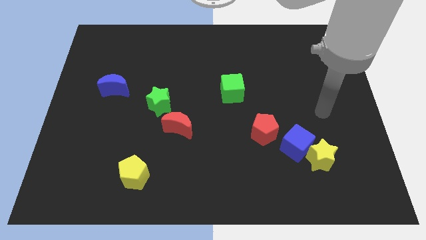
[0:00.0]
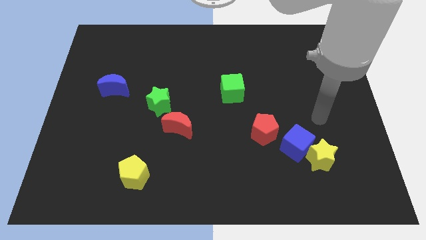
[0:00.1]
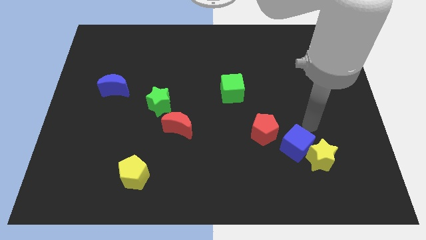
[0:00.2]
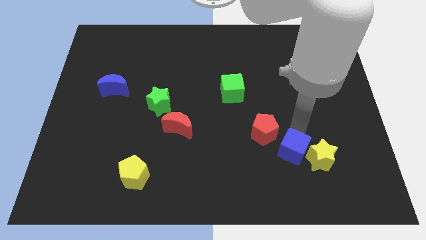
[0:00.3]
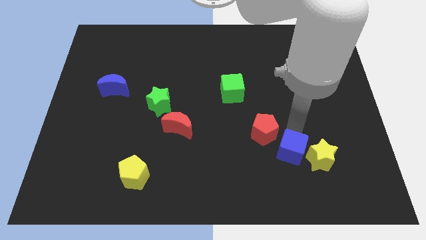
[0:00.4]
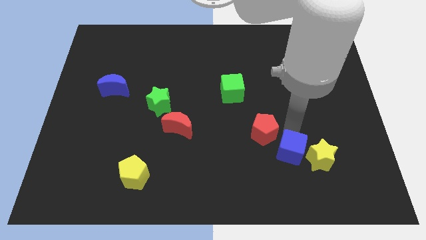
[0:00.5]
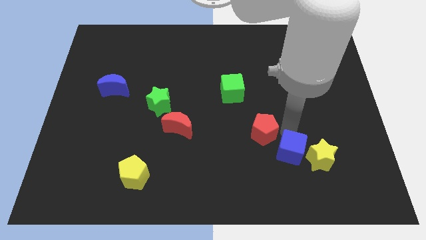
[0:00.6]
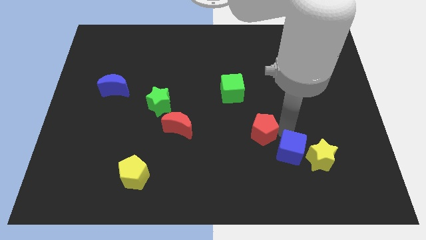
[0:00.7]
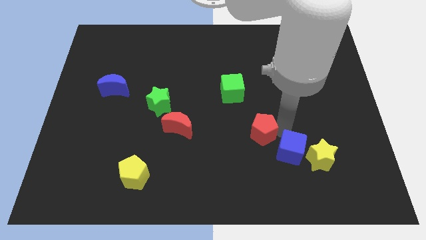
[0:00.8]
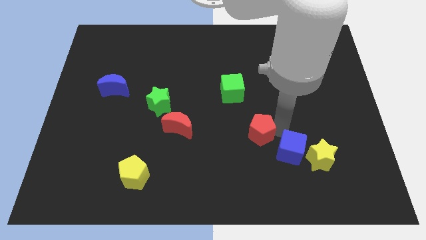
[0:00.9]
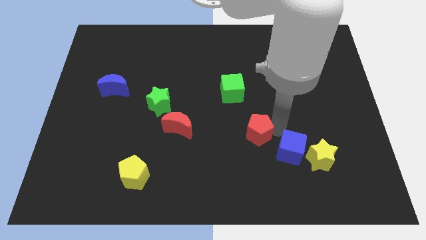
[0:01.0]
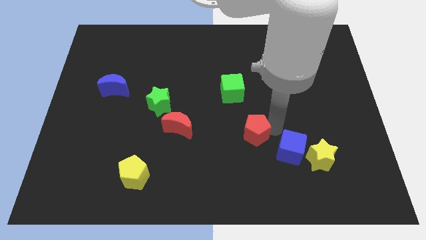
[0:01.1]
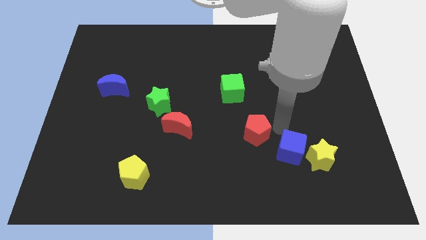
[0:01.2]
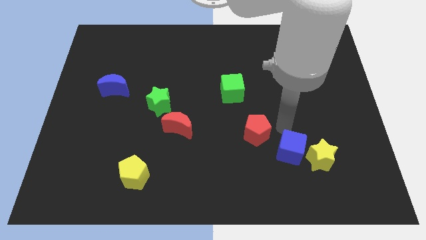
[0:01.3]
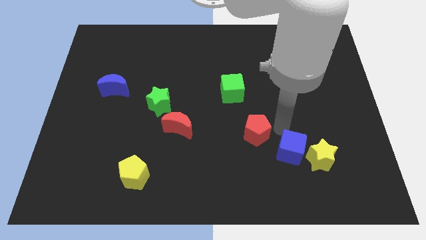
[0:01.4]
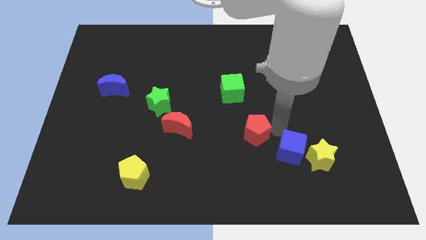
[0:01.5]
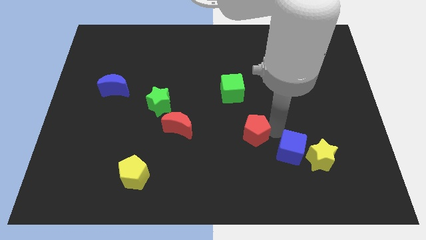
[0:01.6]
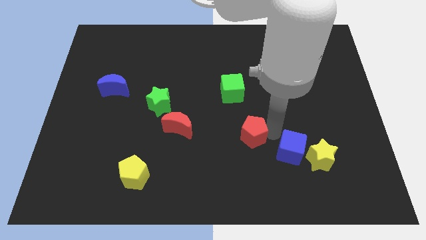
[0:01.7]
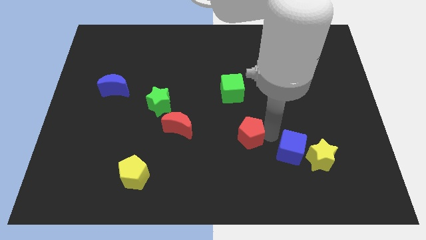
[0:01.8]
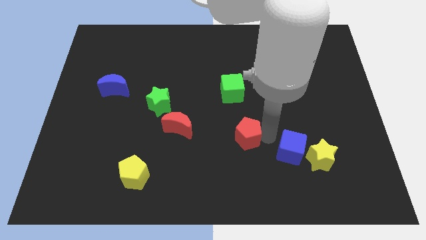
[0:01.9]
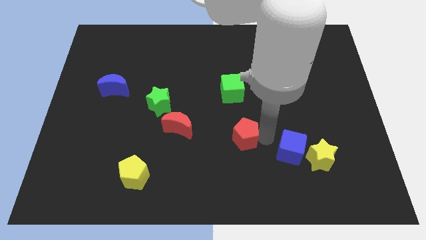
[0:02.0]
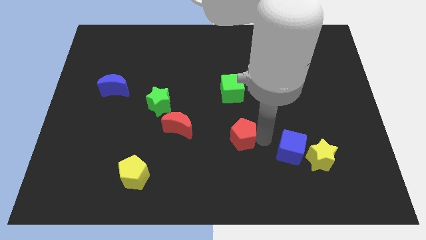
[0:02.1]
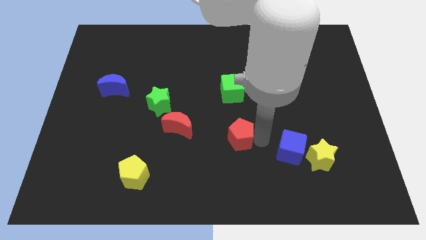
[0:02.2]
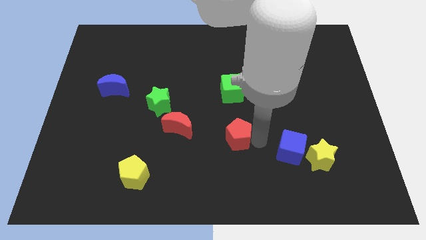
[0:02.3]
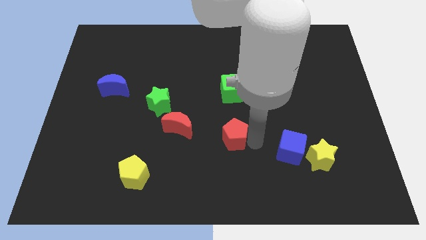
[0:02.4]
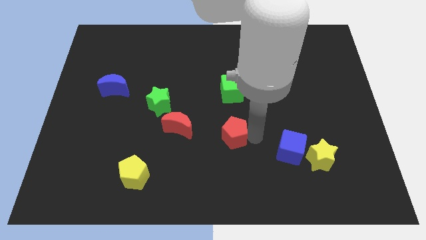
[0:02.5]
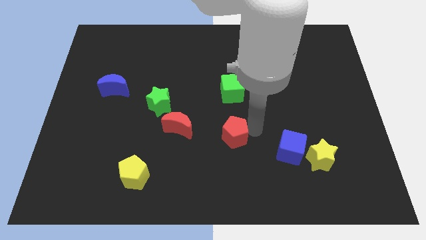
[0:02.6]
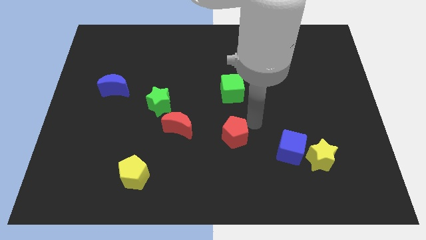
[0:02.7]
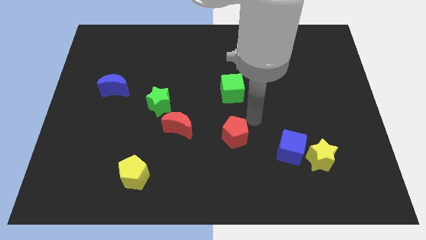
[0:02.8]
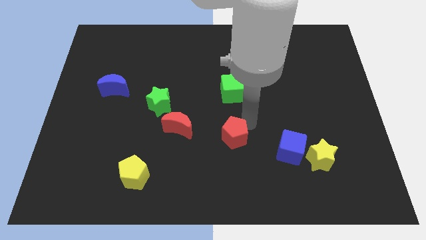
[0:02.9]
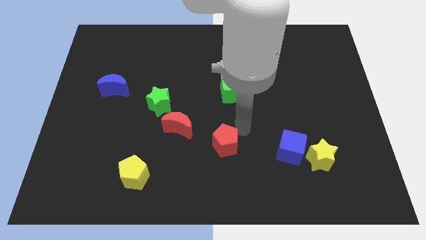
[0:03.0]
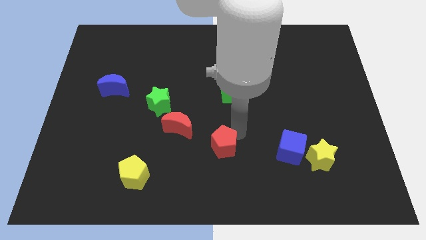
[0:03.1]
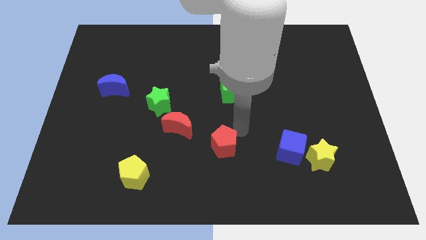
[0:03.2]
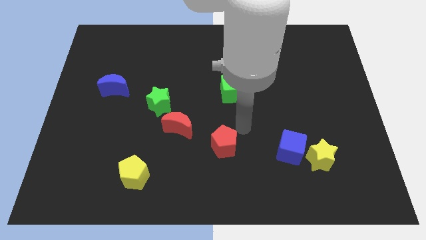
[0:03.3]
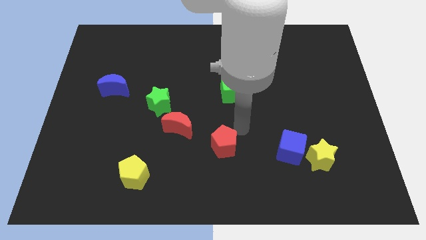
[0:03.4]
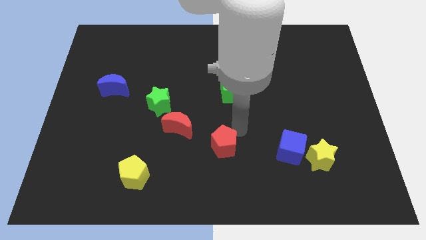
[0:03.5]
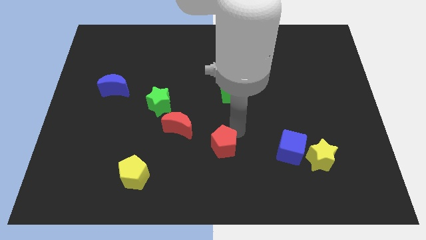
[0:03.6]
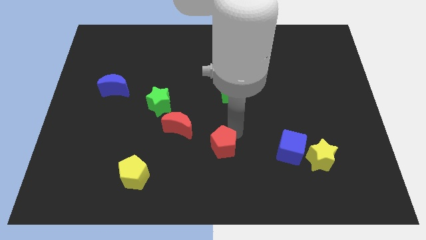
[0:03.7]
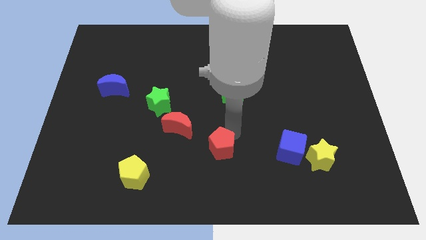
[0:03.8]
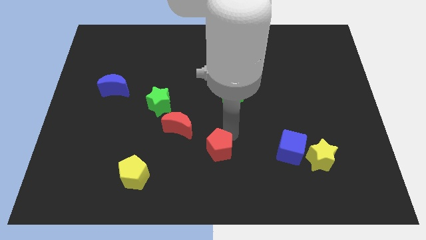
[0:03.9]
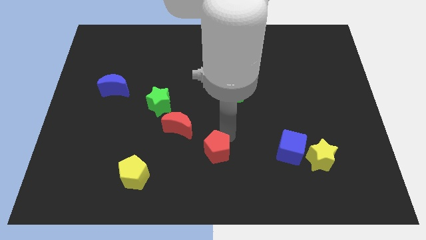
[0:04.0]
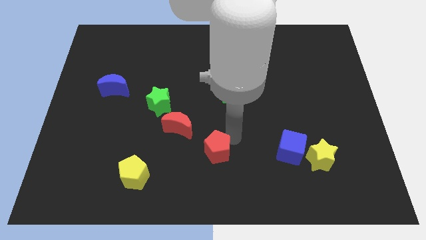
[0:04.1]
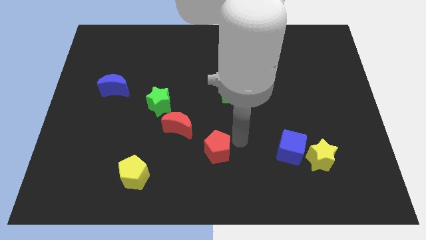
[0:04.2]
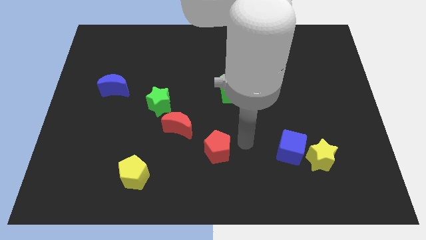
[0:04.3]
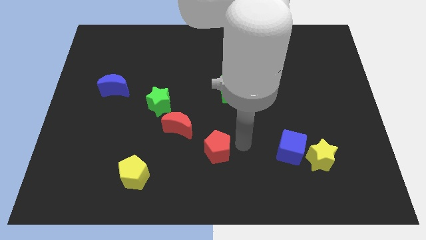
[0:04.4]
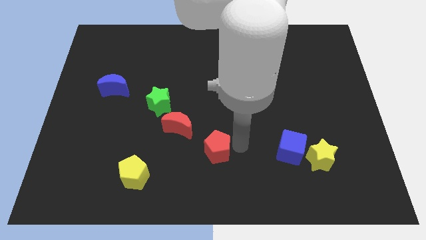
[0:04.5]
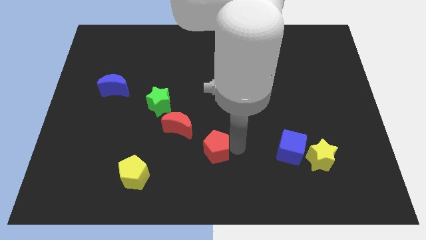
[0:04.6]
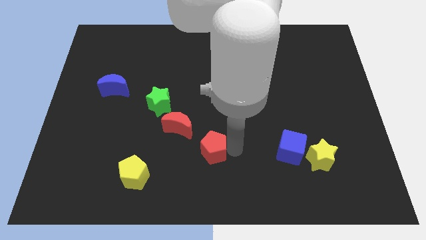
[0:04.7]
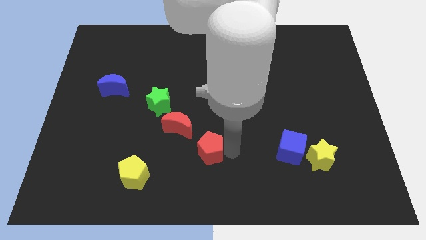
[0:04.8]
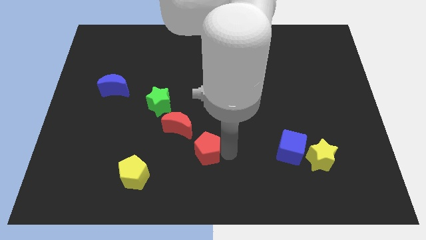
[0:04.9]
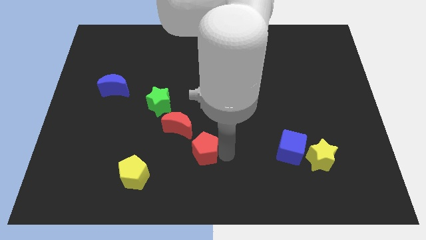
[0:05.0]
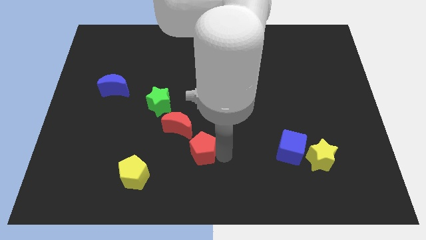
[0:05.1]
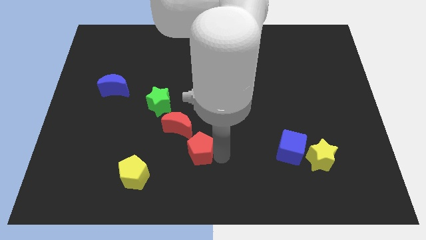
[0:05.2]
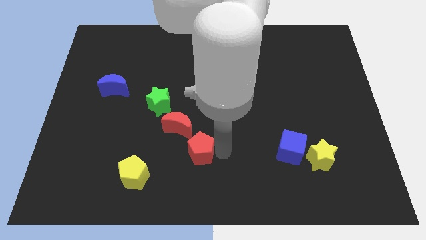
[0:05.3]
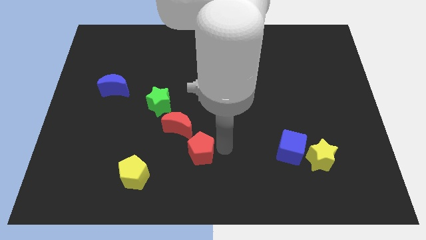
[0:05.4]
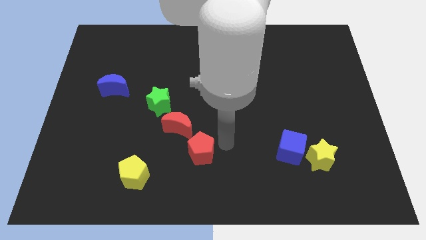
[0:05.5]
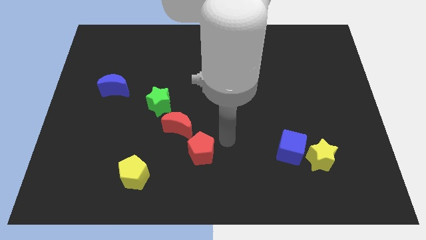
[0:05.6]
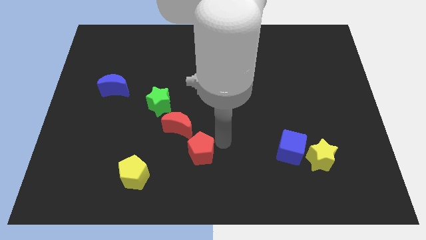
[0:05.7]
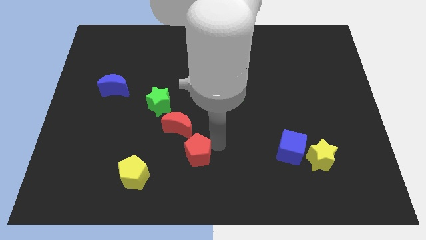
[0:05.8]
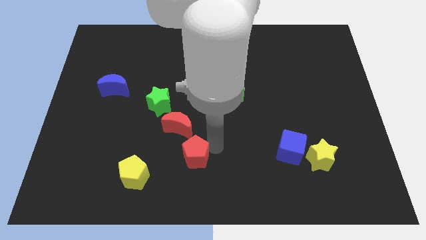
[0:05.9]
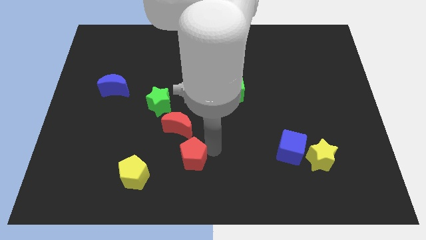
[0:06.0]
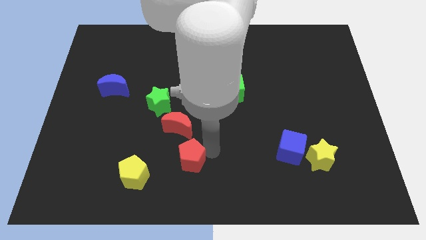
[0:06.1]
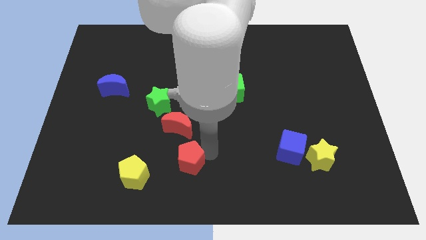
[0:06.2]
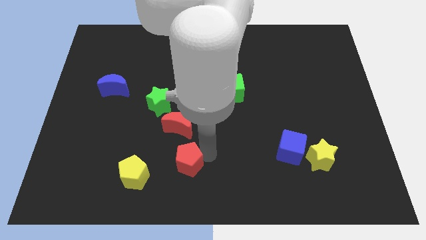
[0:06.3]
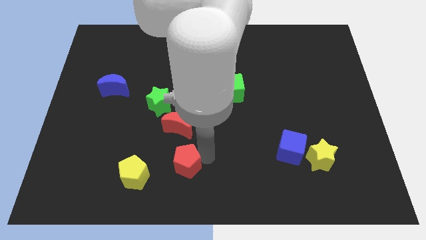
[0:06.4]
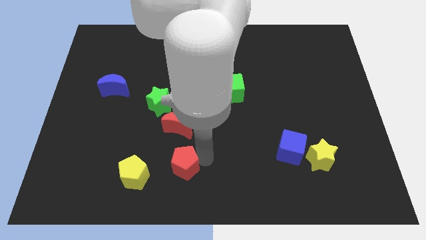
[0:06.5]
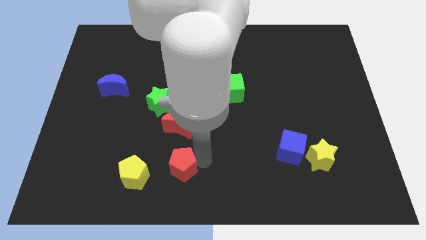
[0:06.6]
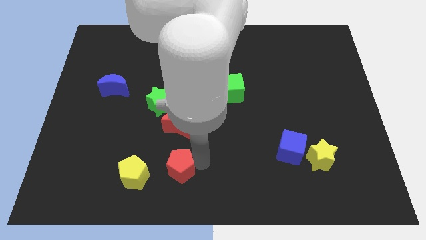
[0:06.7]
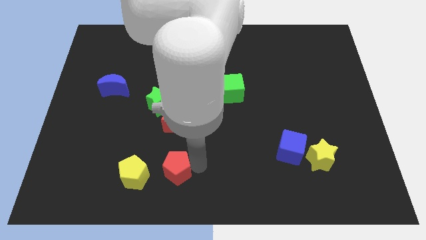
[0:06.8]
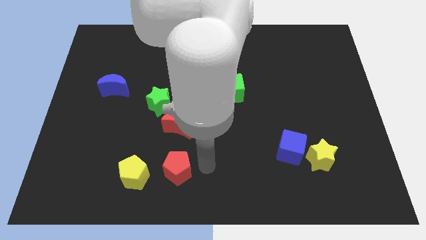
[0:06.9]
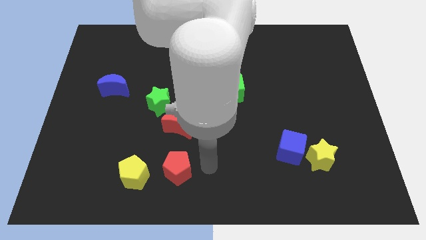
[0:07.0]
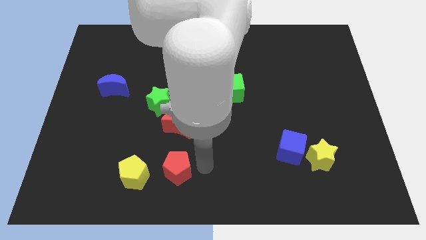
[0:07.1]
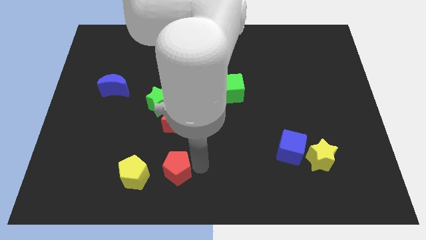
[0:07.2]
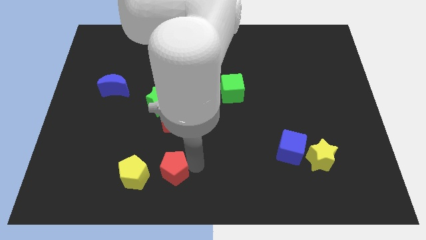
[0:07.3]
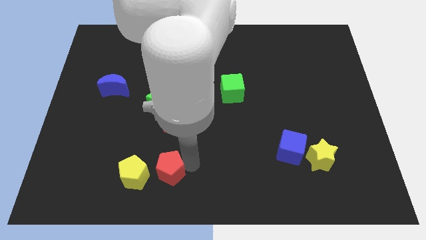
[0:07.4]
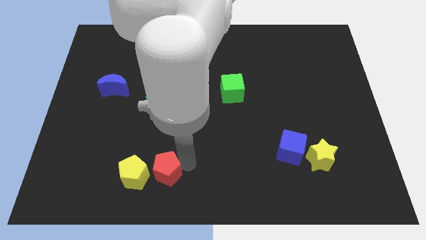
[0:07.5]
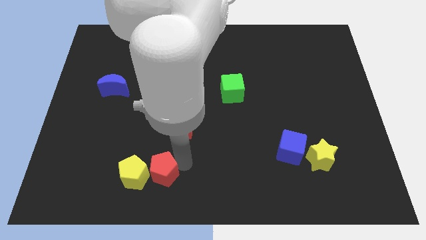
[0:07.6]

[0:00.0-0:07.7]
move the red pentagon close to the yellow pentagon

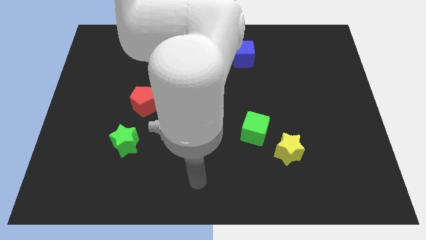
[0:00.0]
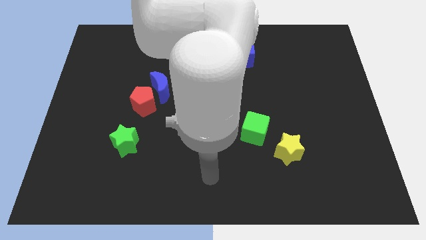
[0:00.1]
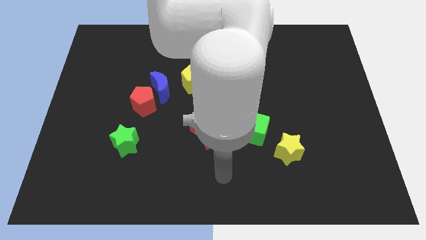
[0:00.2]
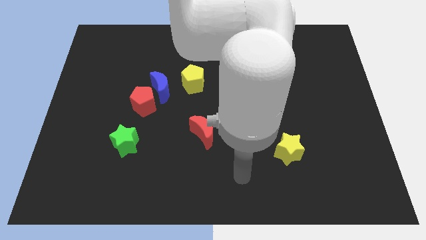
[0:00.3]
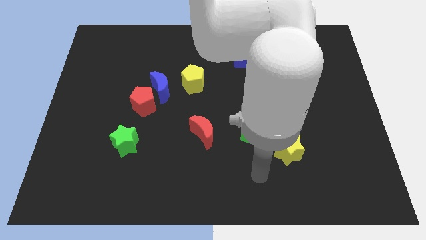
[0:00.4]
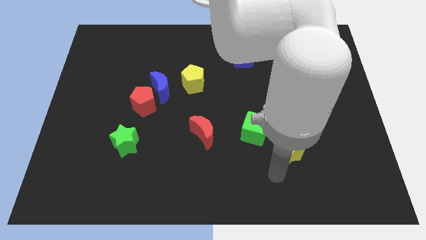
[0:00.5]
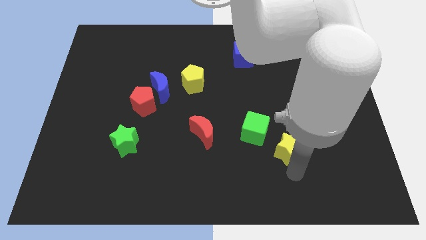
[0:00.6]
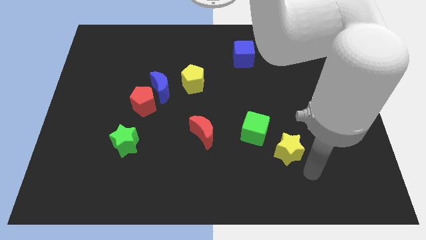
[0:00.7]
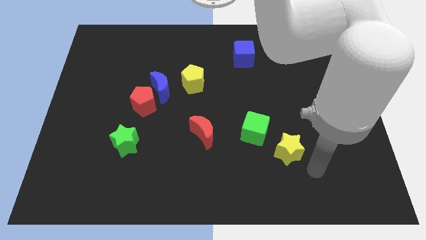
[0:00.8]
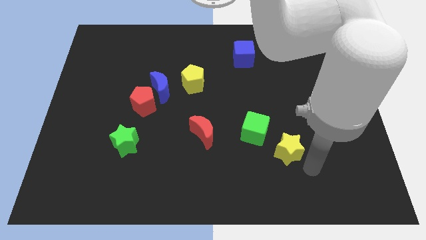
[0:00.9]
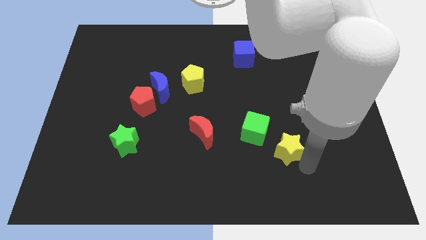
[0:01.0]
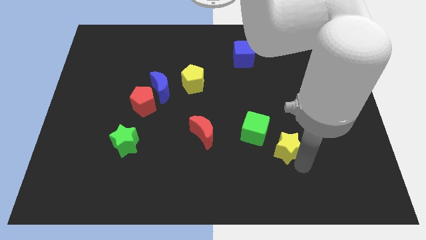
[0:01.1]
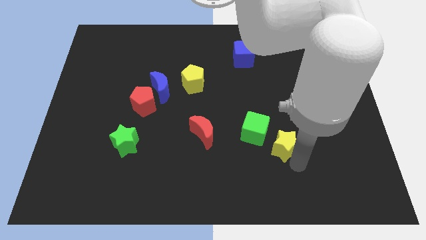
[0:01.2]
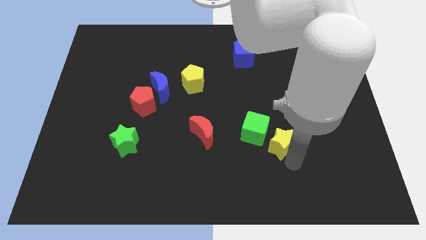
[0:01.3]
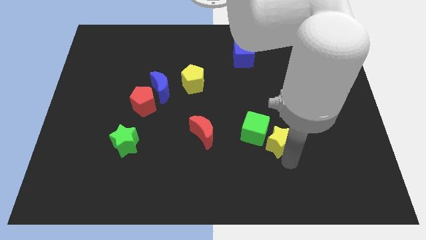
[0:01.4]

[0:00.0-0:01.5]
move the yellow star towards the green cube
